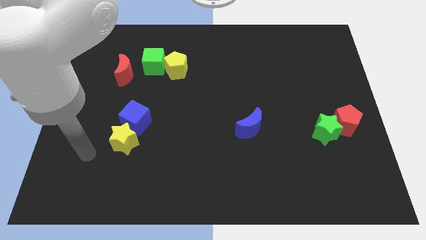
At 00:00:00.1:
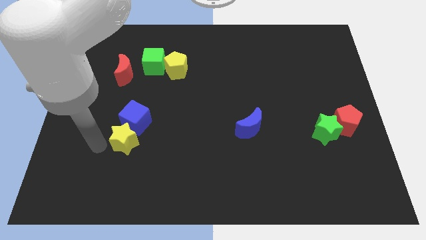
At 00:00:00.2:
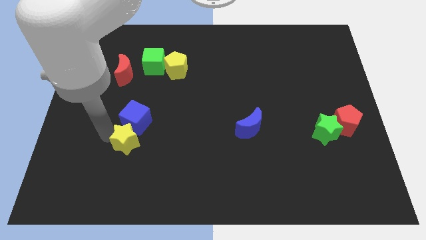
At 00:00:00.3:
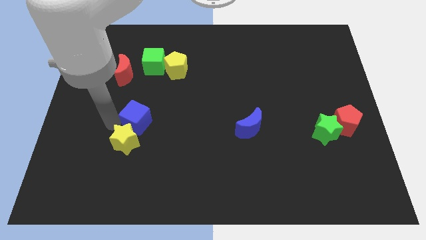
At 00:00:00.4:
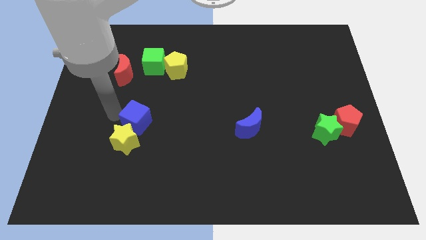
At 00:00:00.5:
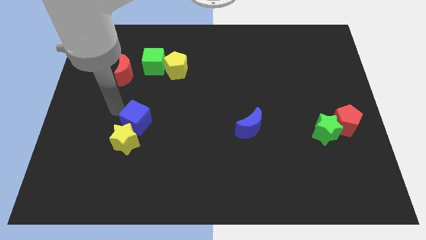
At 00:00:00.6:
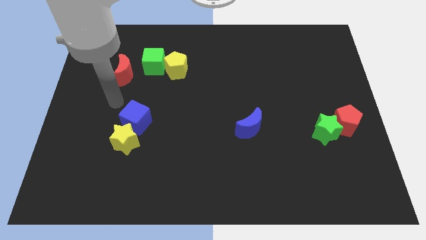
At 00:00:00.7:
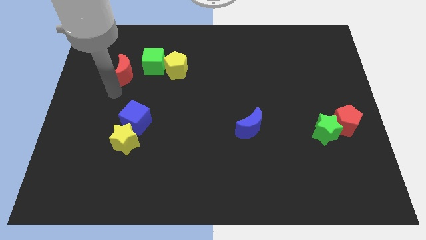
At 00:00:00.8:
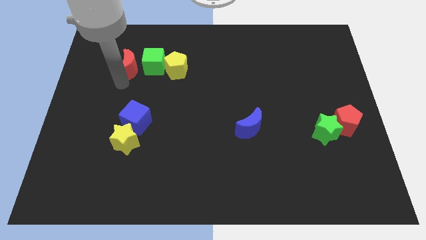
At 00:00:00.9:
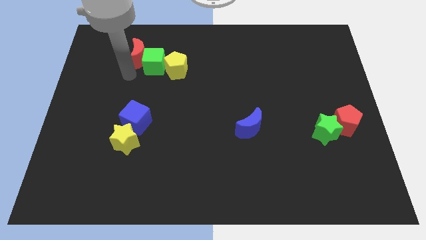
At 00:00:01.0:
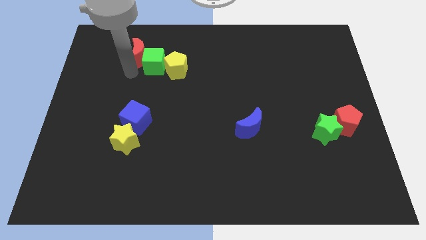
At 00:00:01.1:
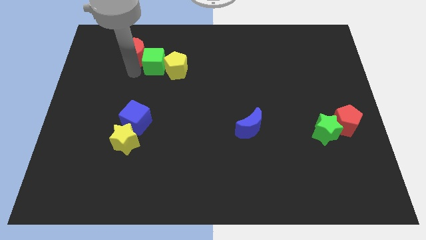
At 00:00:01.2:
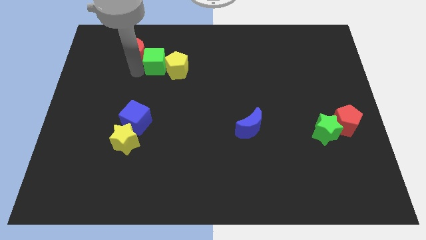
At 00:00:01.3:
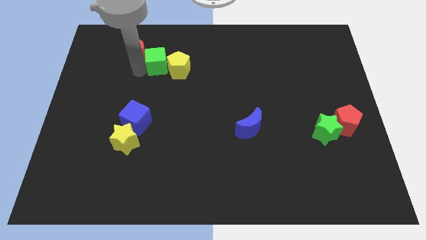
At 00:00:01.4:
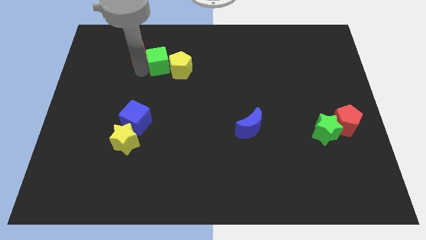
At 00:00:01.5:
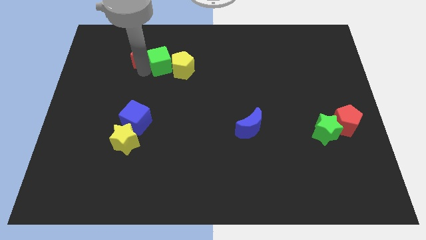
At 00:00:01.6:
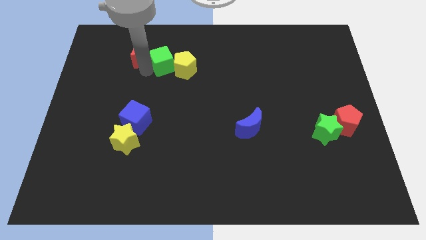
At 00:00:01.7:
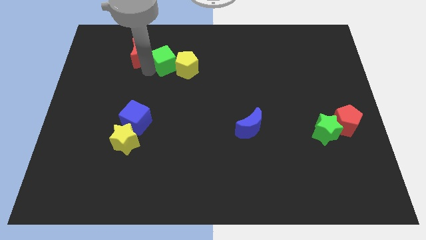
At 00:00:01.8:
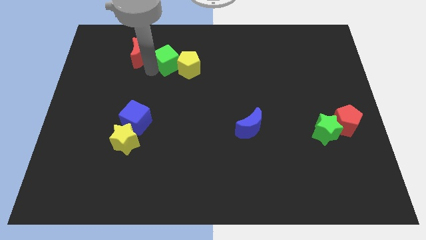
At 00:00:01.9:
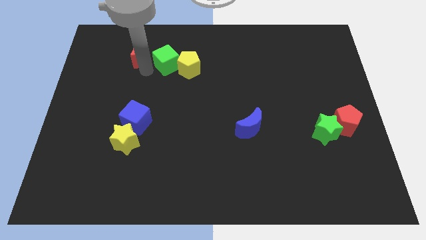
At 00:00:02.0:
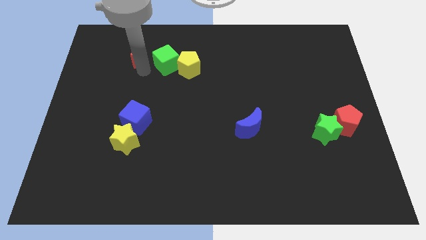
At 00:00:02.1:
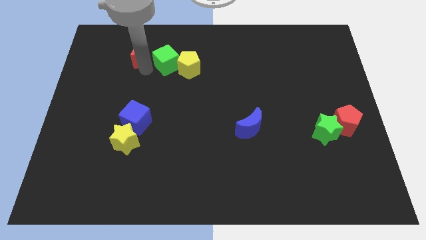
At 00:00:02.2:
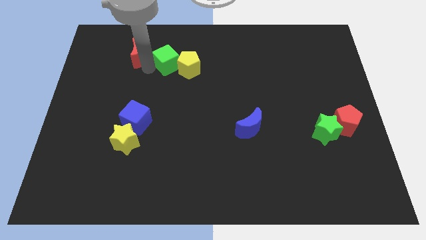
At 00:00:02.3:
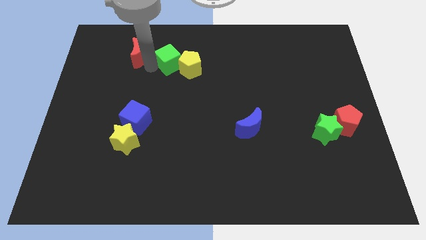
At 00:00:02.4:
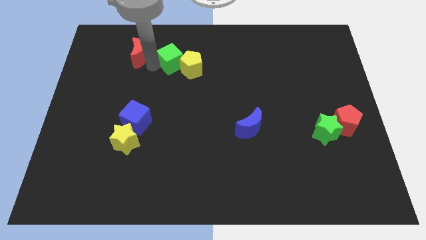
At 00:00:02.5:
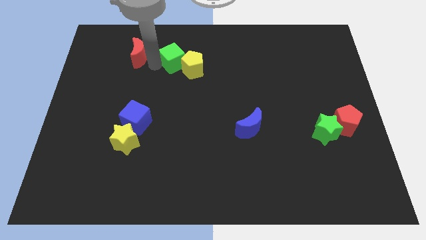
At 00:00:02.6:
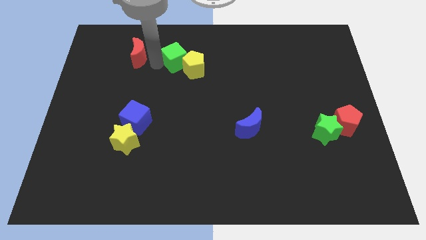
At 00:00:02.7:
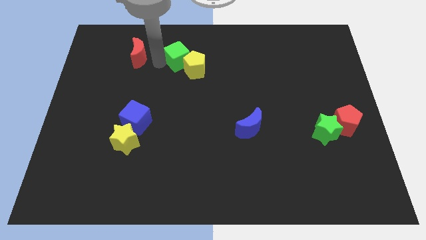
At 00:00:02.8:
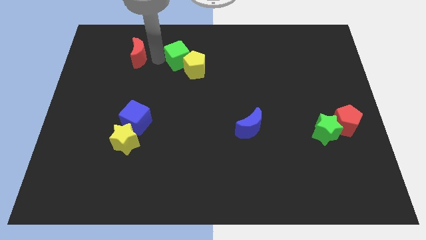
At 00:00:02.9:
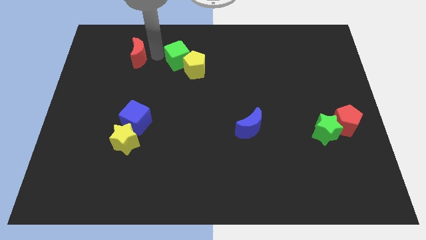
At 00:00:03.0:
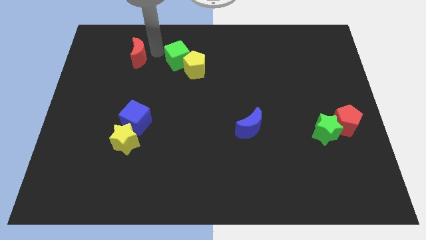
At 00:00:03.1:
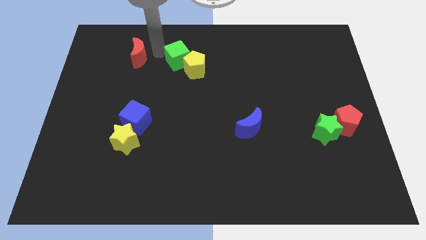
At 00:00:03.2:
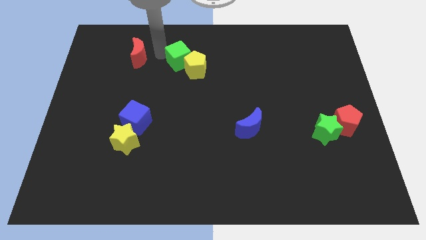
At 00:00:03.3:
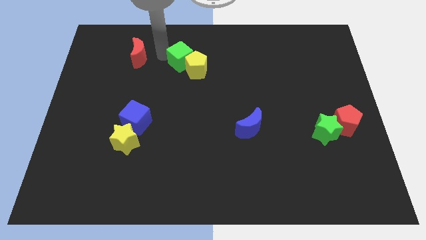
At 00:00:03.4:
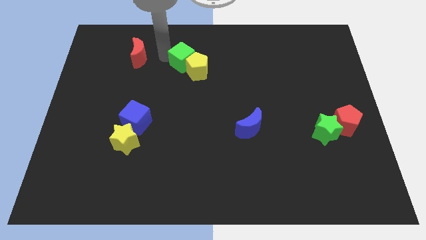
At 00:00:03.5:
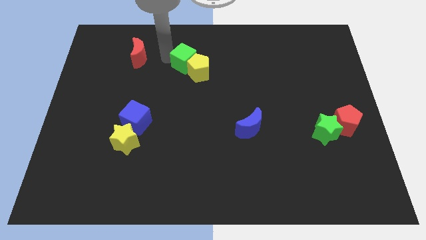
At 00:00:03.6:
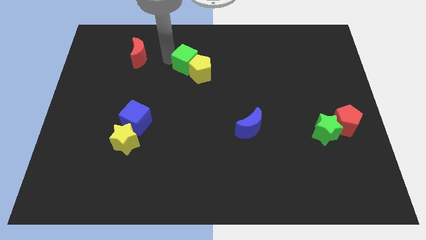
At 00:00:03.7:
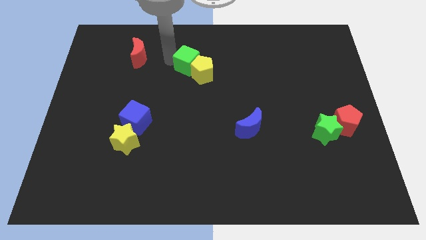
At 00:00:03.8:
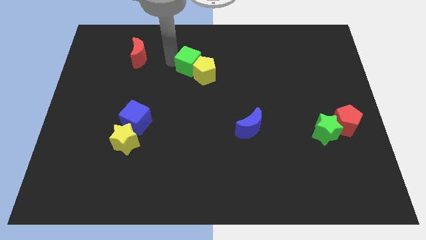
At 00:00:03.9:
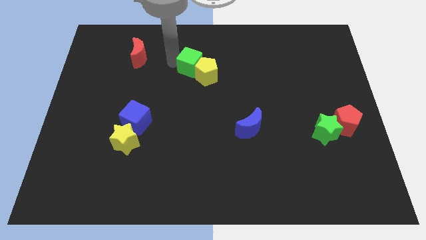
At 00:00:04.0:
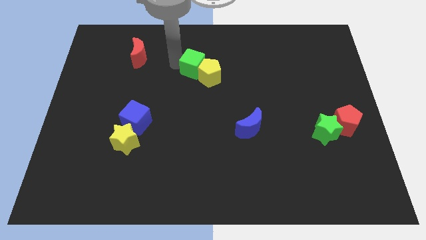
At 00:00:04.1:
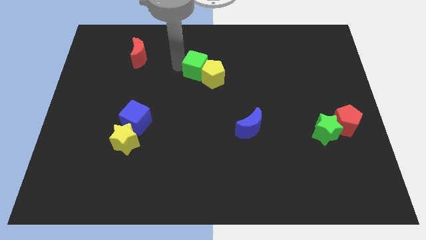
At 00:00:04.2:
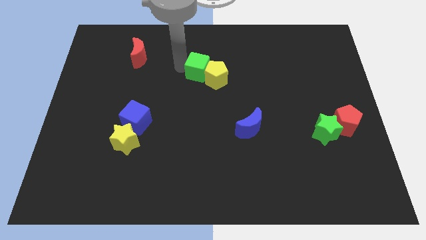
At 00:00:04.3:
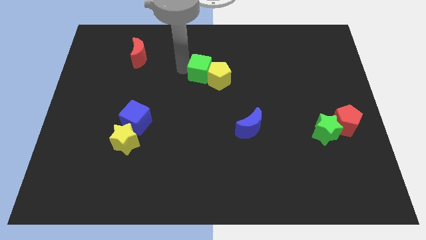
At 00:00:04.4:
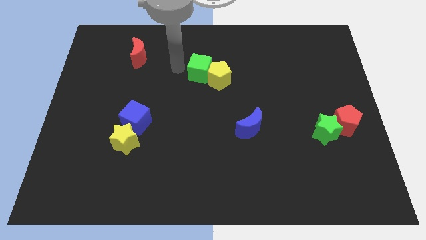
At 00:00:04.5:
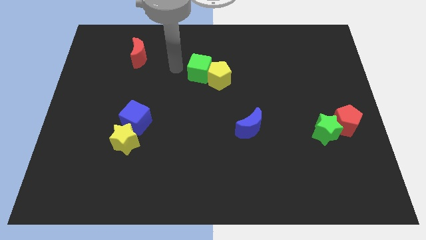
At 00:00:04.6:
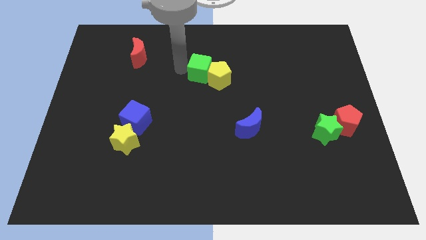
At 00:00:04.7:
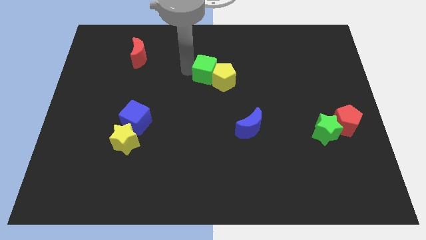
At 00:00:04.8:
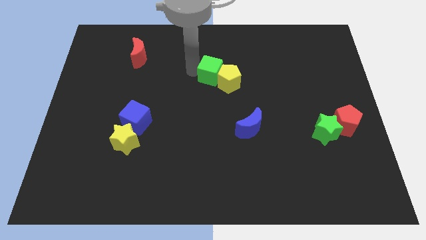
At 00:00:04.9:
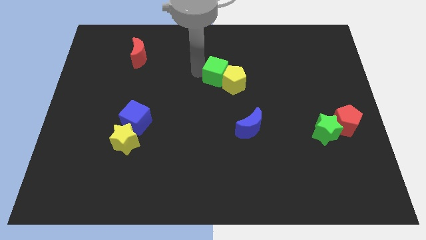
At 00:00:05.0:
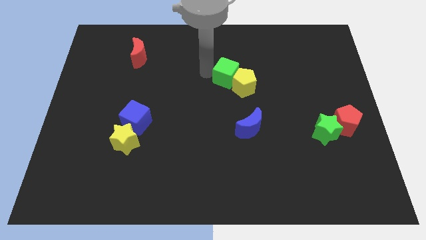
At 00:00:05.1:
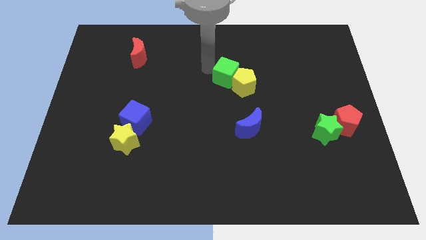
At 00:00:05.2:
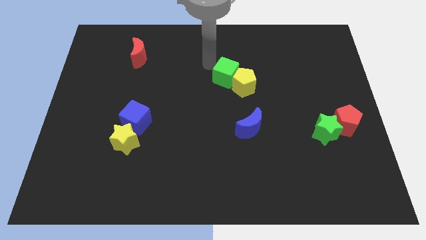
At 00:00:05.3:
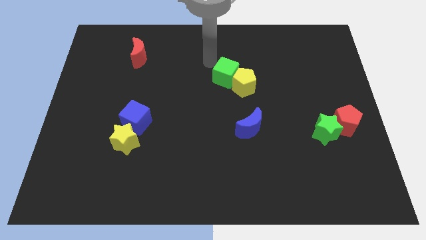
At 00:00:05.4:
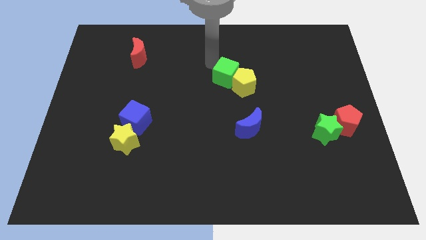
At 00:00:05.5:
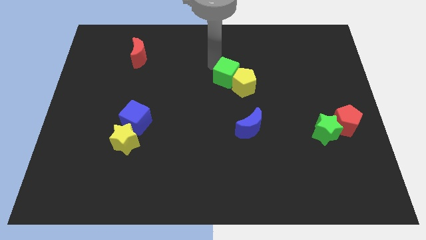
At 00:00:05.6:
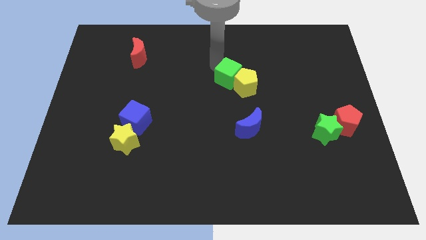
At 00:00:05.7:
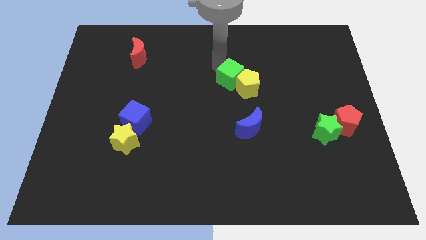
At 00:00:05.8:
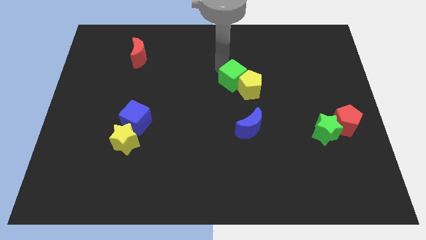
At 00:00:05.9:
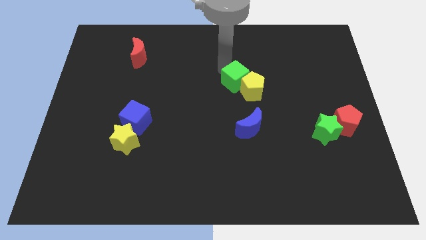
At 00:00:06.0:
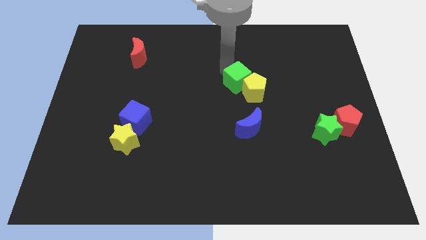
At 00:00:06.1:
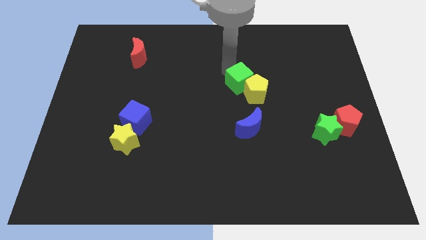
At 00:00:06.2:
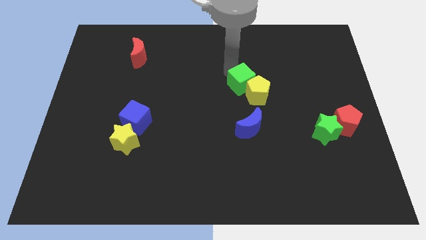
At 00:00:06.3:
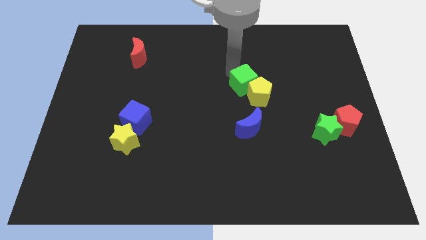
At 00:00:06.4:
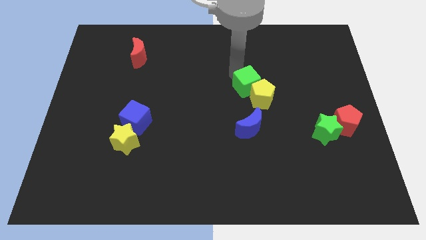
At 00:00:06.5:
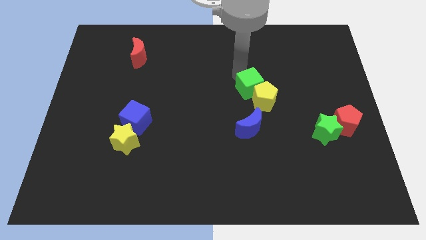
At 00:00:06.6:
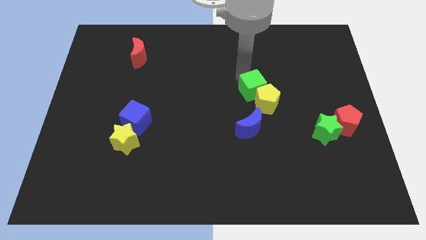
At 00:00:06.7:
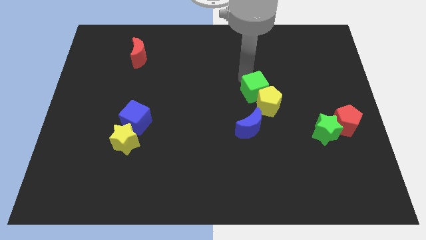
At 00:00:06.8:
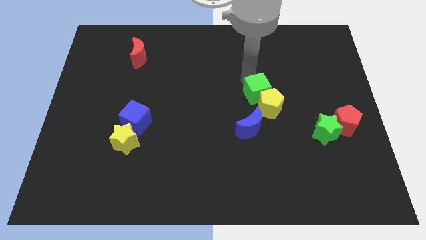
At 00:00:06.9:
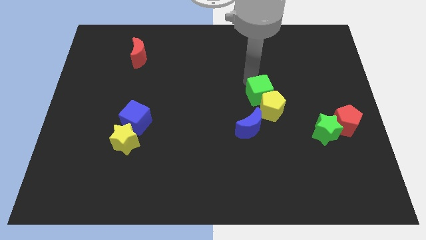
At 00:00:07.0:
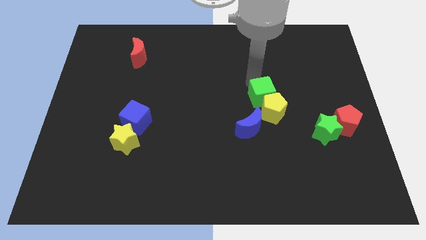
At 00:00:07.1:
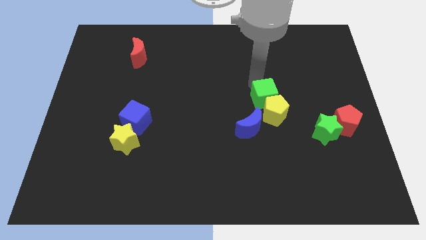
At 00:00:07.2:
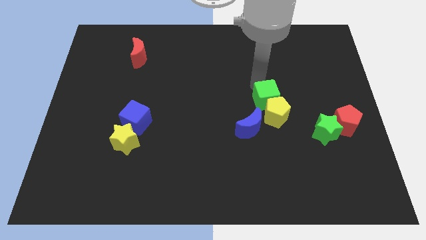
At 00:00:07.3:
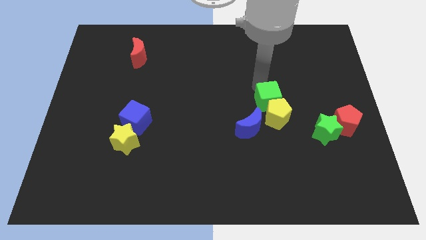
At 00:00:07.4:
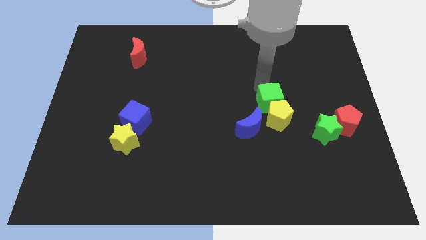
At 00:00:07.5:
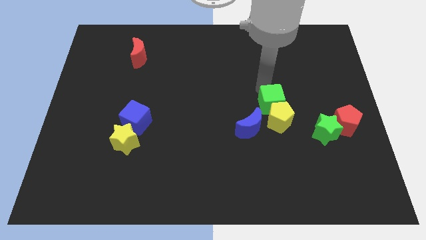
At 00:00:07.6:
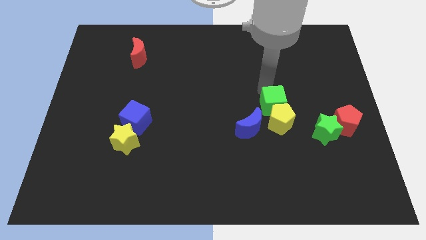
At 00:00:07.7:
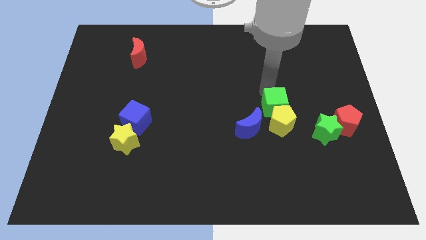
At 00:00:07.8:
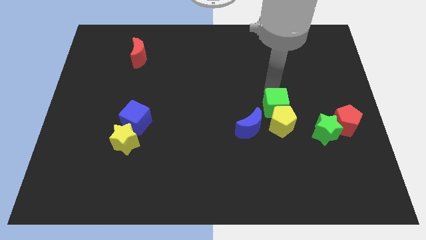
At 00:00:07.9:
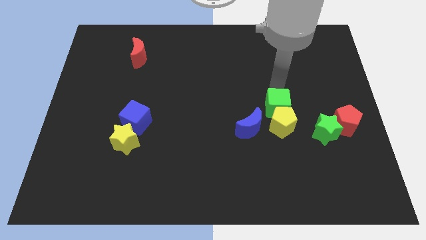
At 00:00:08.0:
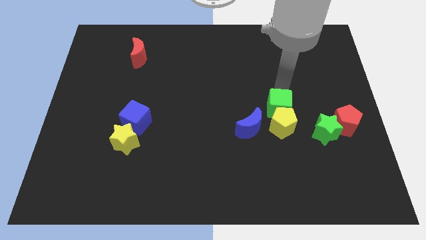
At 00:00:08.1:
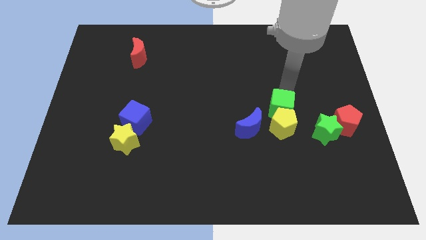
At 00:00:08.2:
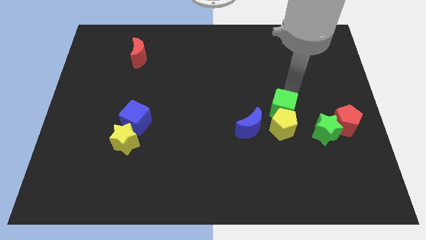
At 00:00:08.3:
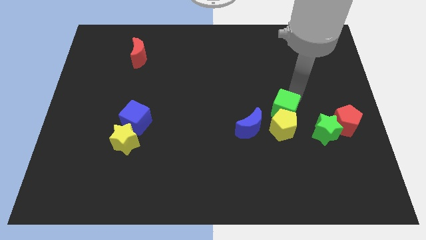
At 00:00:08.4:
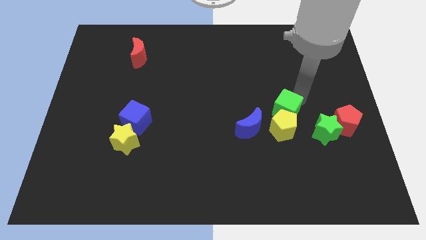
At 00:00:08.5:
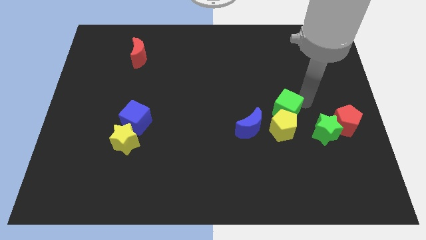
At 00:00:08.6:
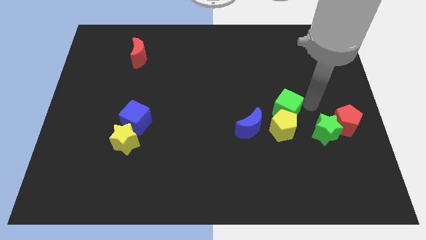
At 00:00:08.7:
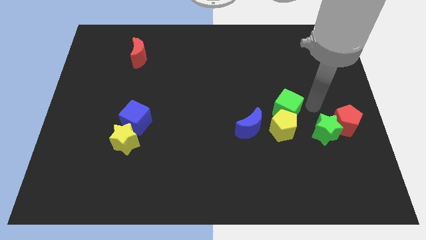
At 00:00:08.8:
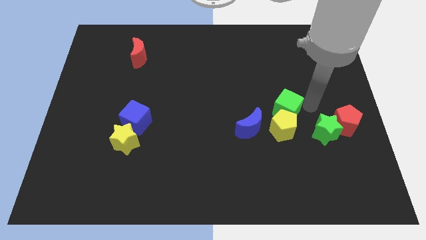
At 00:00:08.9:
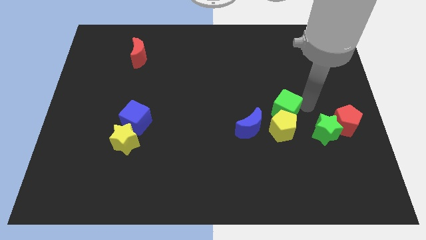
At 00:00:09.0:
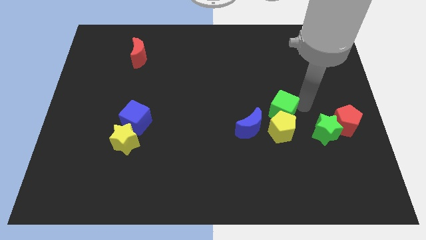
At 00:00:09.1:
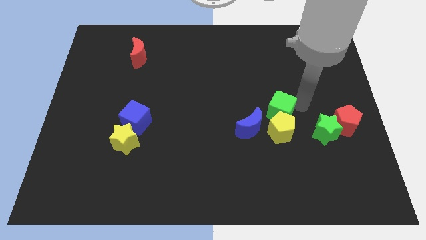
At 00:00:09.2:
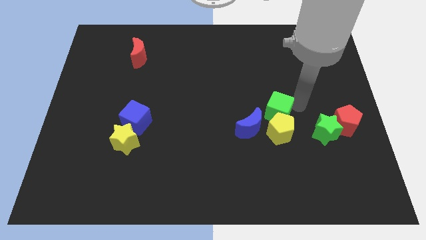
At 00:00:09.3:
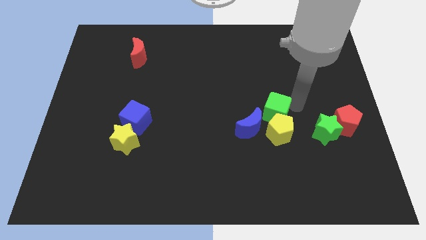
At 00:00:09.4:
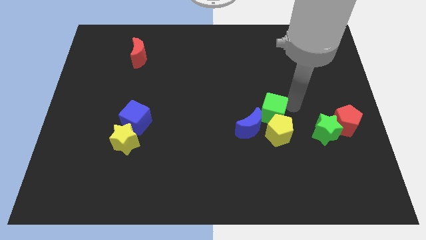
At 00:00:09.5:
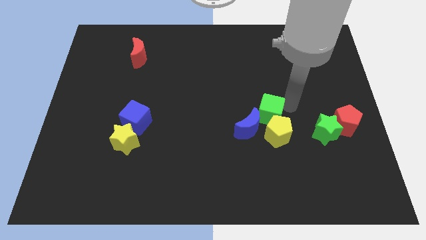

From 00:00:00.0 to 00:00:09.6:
put the green cube just left of the green star
